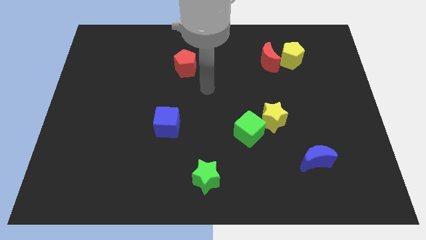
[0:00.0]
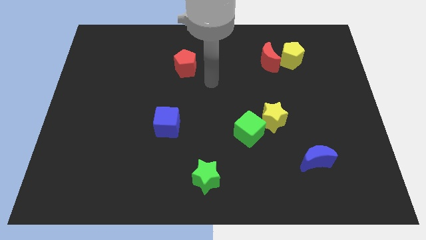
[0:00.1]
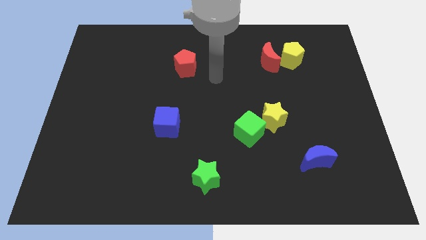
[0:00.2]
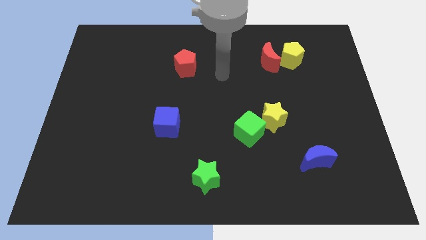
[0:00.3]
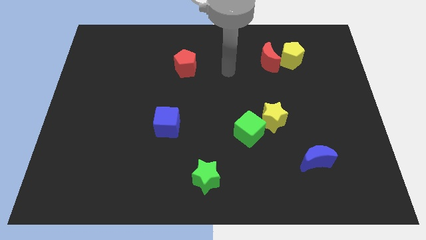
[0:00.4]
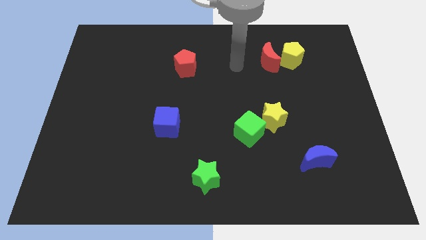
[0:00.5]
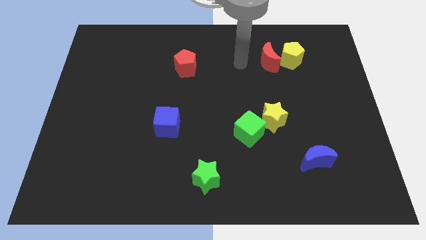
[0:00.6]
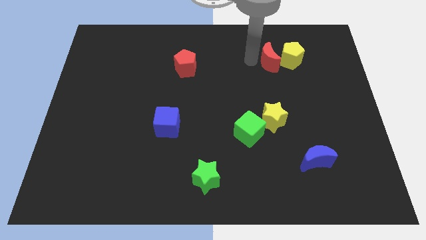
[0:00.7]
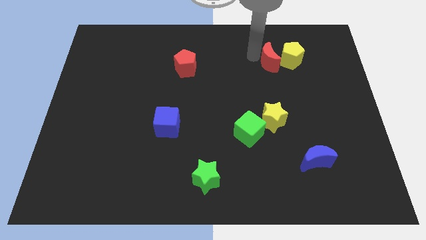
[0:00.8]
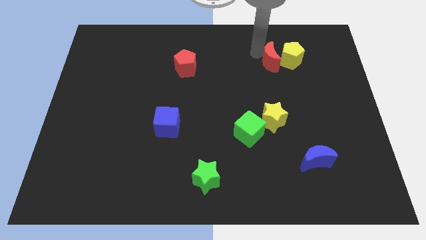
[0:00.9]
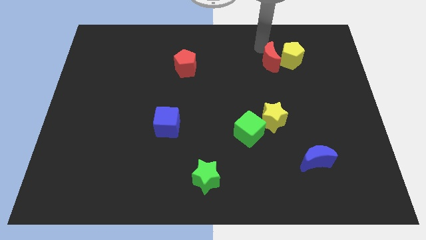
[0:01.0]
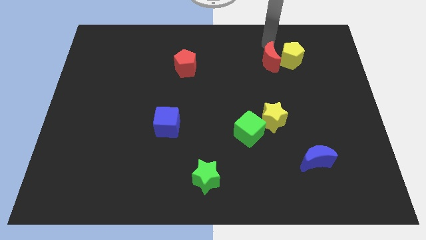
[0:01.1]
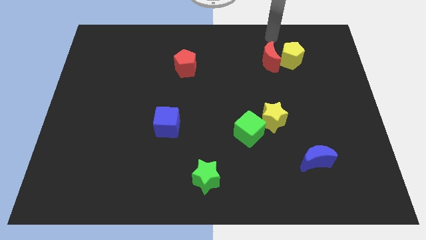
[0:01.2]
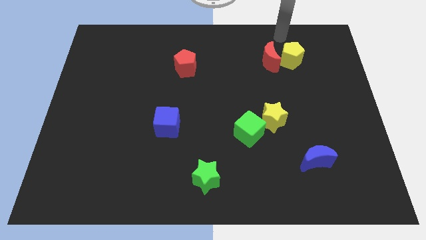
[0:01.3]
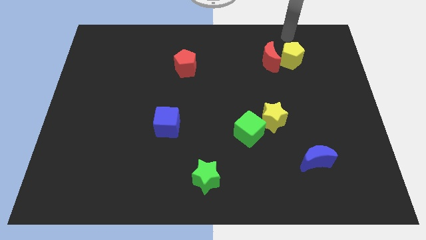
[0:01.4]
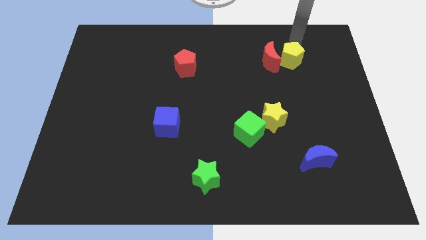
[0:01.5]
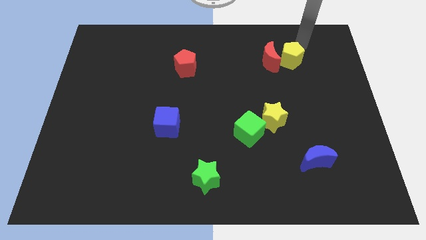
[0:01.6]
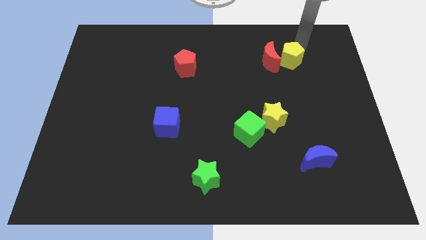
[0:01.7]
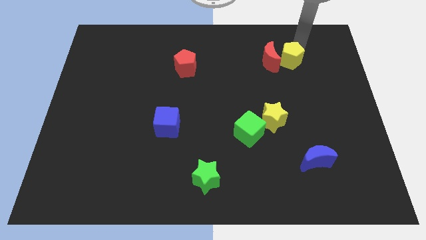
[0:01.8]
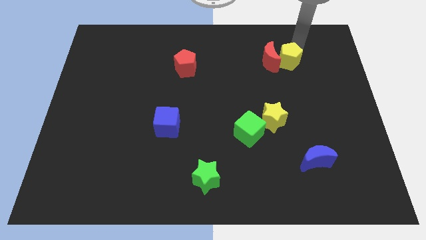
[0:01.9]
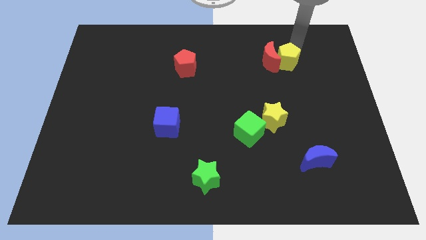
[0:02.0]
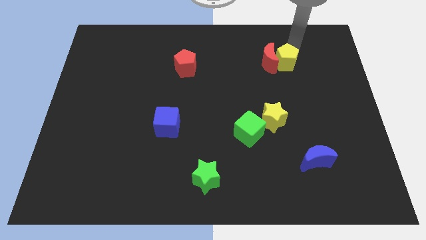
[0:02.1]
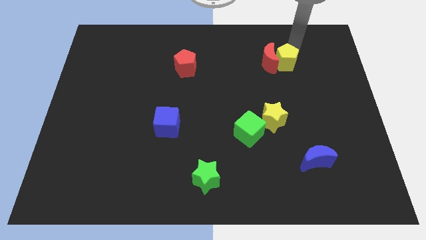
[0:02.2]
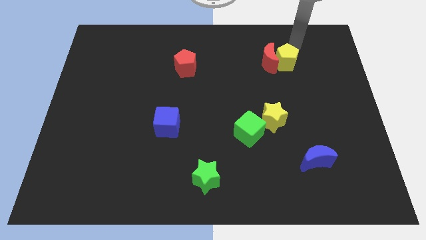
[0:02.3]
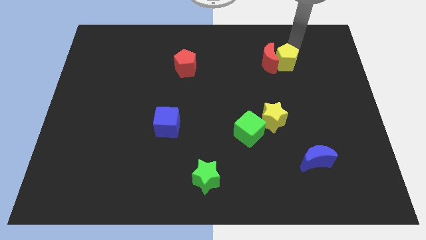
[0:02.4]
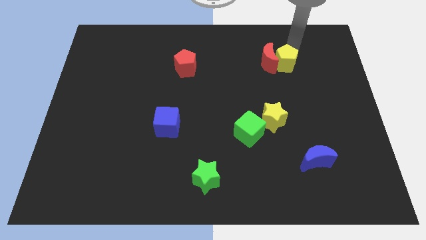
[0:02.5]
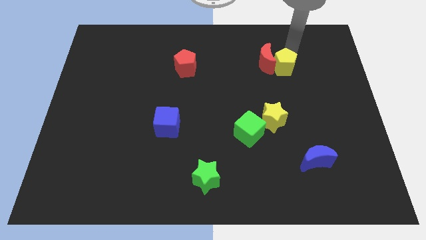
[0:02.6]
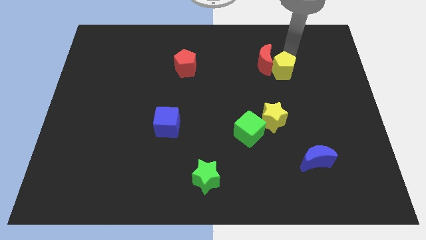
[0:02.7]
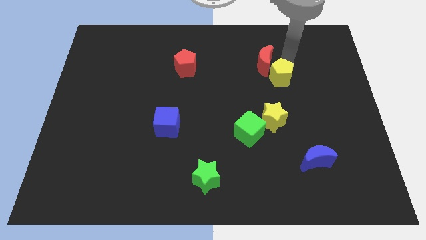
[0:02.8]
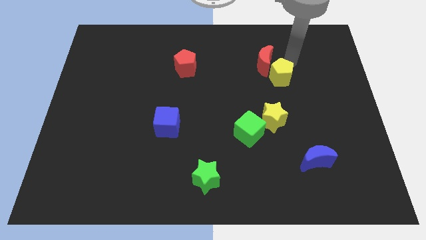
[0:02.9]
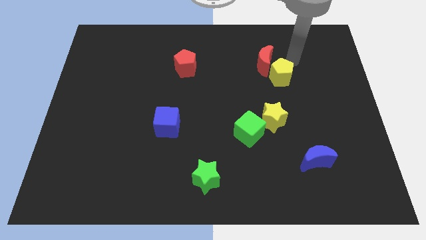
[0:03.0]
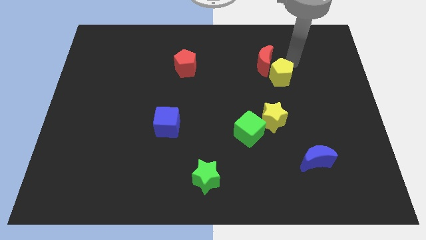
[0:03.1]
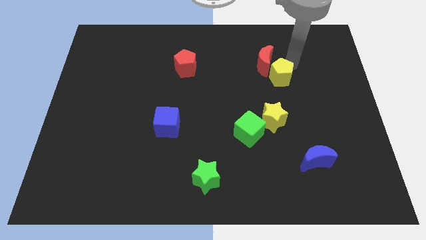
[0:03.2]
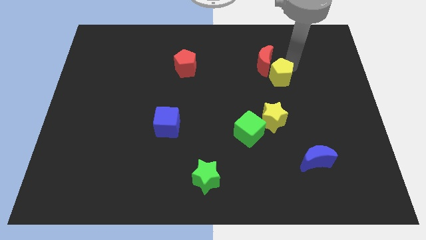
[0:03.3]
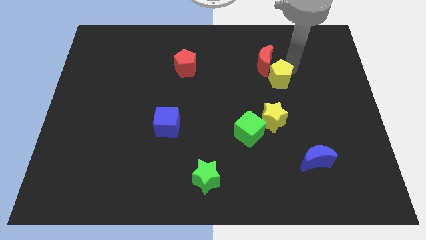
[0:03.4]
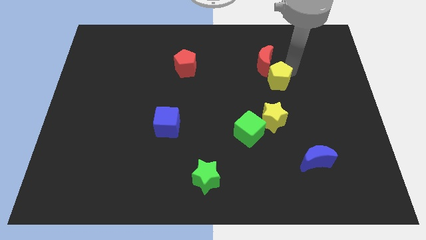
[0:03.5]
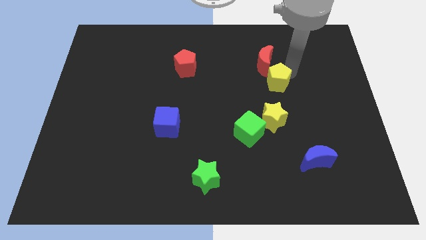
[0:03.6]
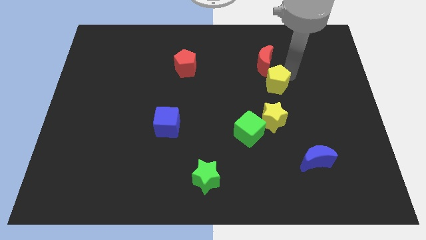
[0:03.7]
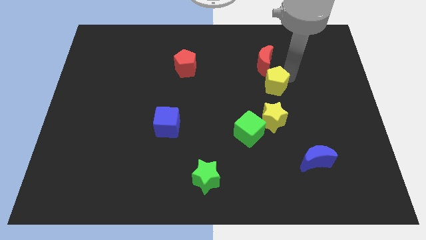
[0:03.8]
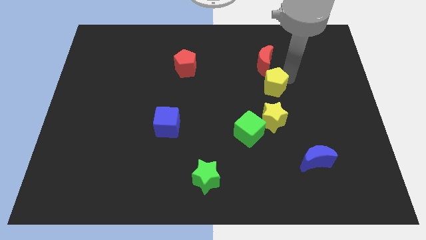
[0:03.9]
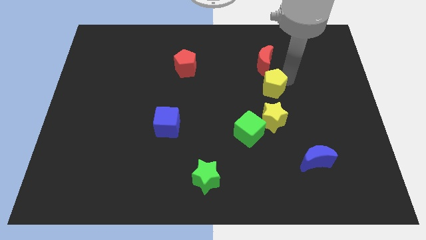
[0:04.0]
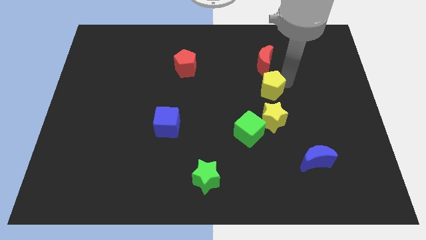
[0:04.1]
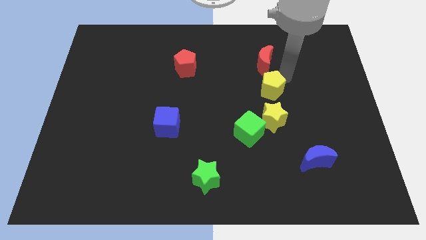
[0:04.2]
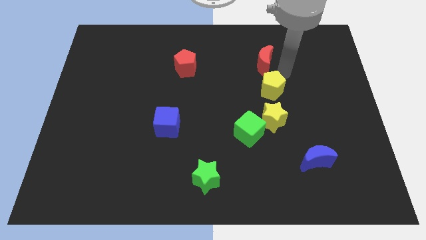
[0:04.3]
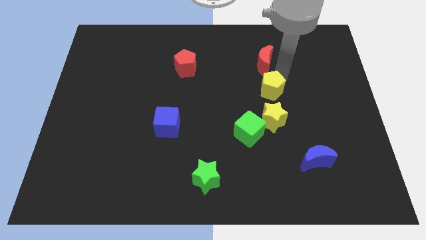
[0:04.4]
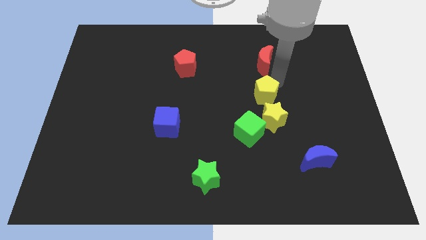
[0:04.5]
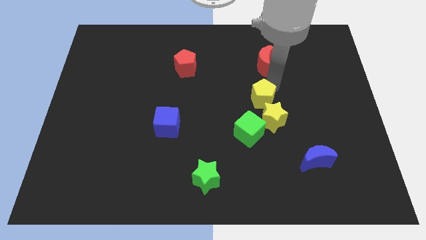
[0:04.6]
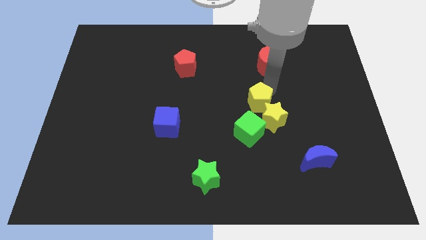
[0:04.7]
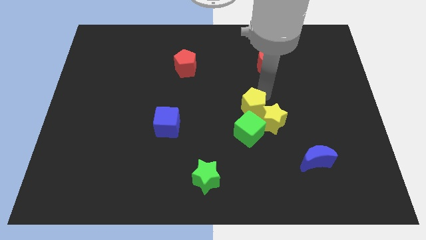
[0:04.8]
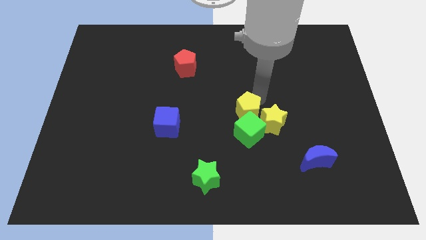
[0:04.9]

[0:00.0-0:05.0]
slide the yellow pentagon close to the green cube

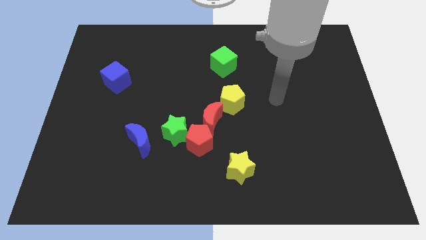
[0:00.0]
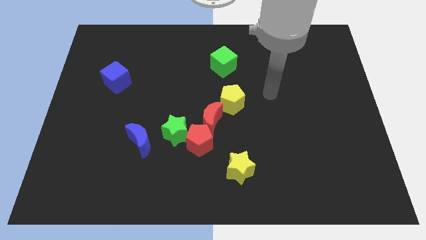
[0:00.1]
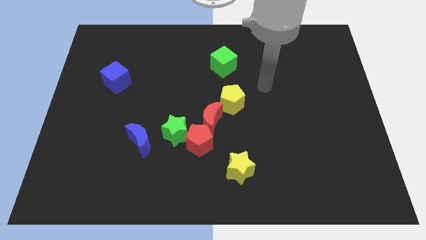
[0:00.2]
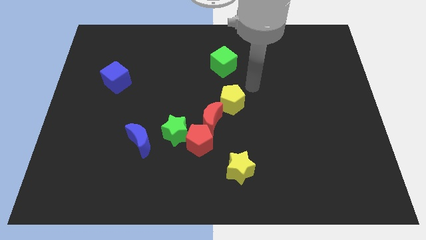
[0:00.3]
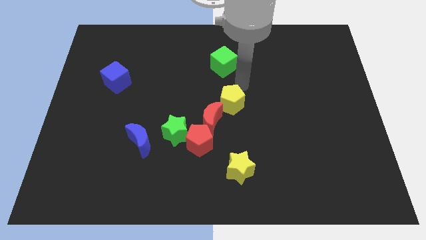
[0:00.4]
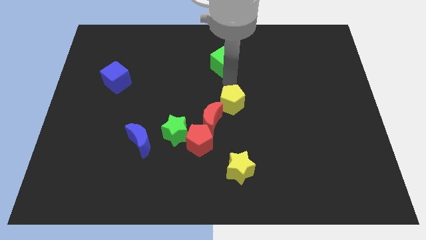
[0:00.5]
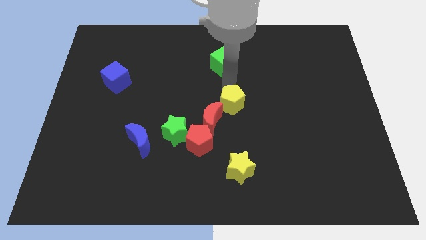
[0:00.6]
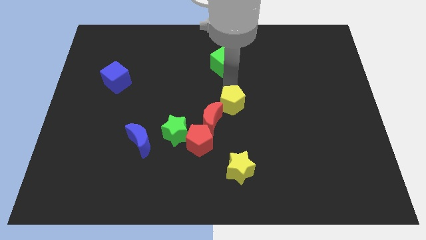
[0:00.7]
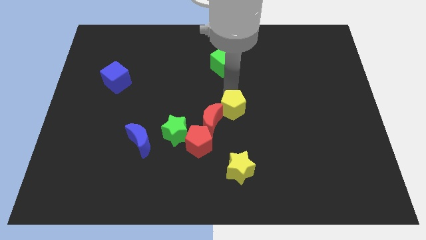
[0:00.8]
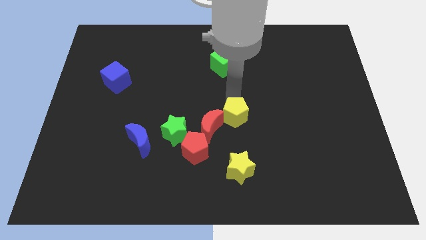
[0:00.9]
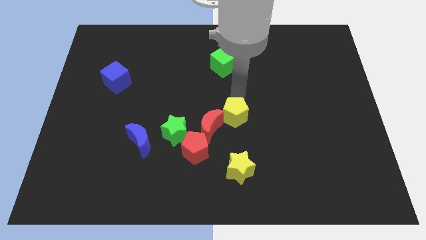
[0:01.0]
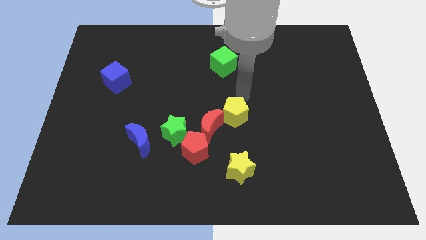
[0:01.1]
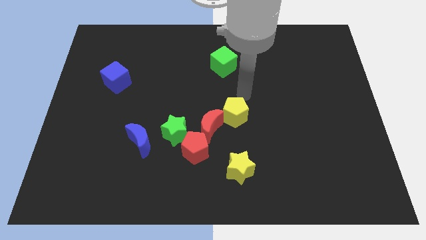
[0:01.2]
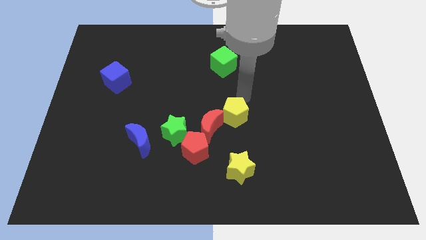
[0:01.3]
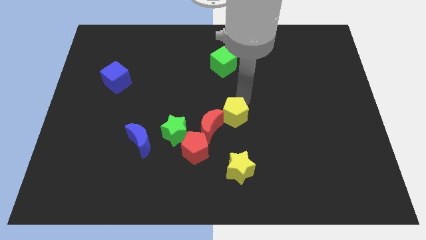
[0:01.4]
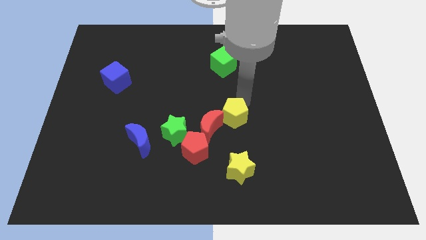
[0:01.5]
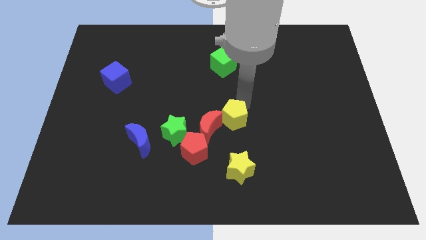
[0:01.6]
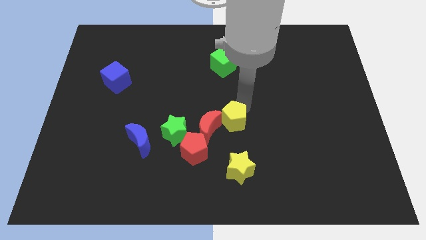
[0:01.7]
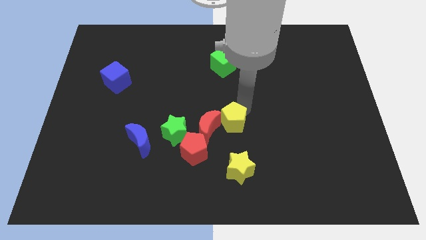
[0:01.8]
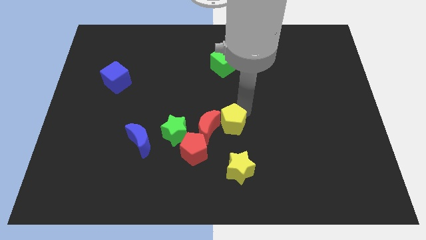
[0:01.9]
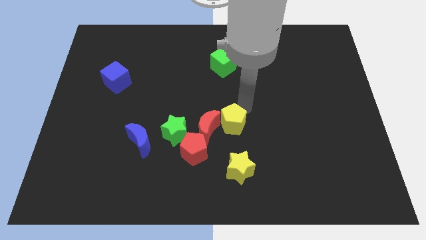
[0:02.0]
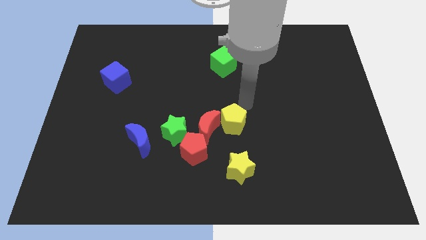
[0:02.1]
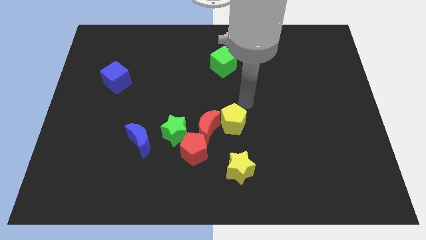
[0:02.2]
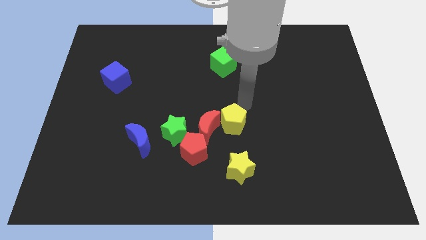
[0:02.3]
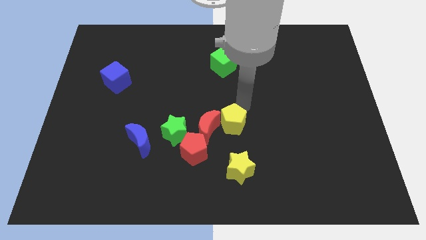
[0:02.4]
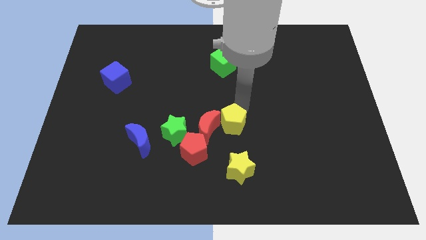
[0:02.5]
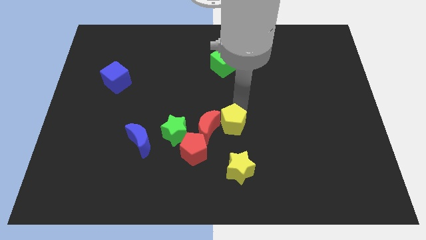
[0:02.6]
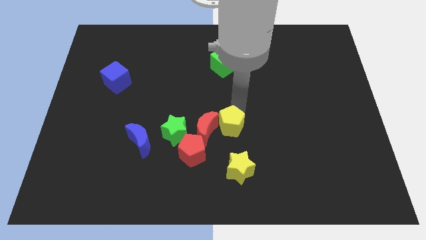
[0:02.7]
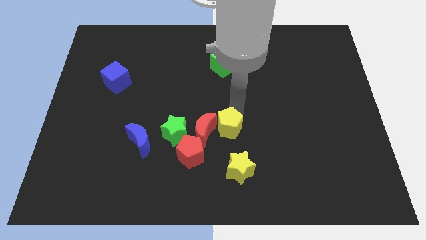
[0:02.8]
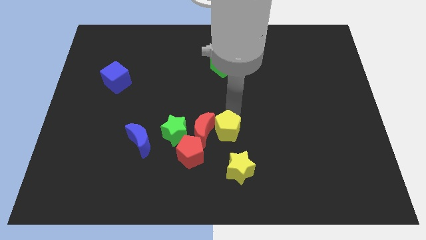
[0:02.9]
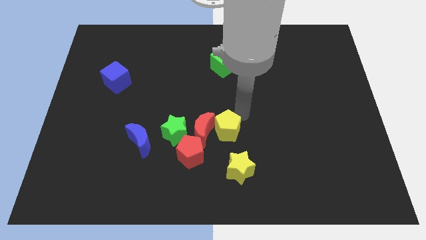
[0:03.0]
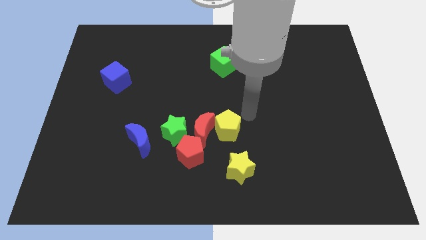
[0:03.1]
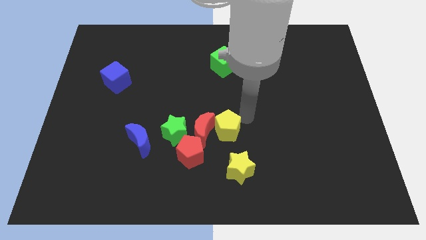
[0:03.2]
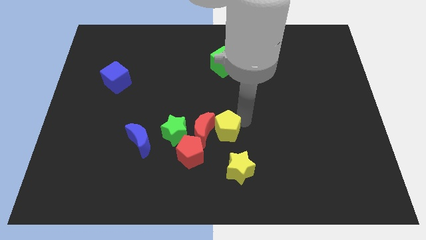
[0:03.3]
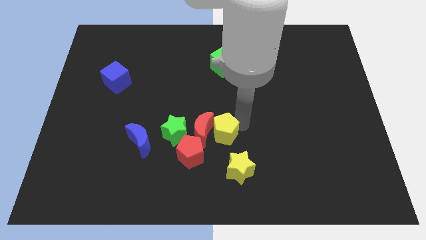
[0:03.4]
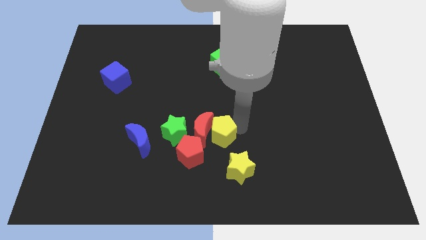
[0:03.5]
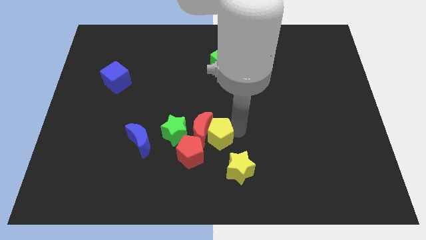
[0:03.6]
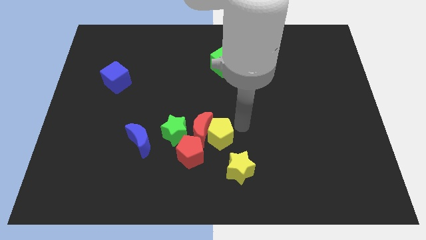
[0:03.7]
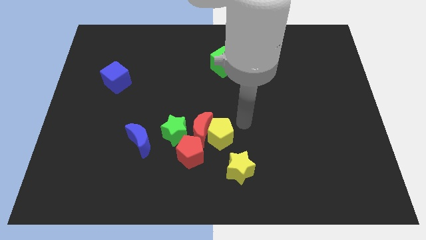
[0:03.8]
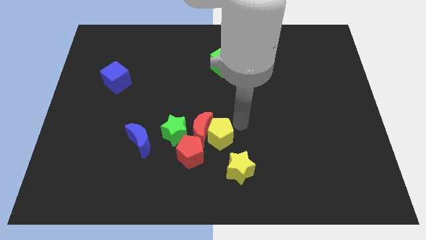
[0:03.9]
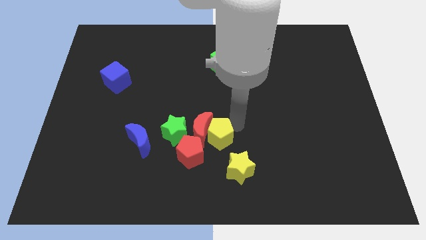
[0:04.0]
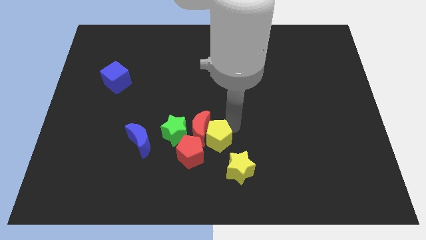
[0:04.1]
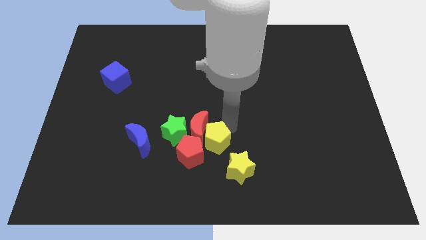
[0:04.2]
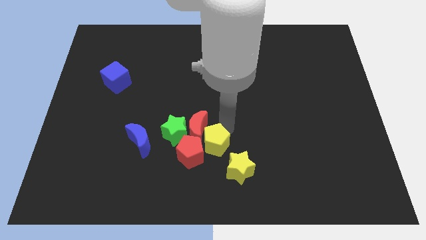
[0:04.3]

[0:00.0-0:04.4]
push the yellow pentagon next to the red pentagon
